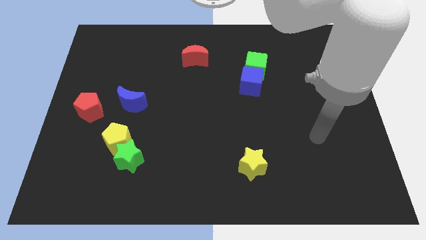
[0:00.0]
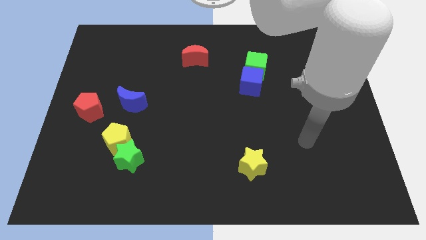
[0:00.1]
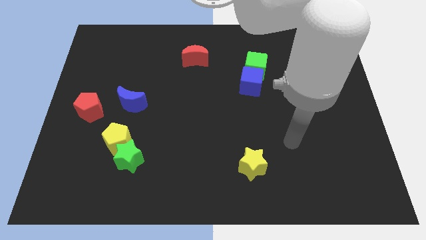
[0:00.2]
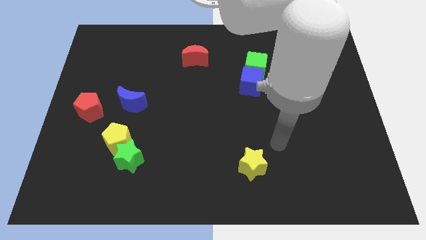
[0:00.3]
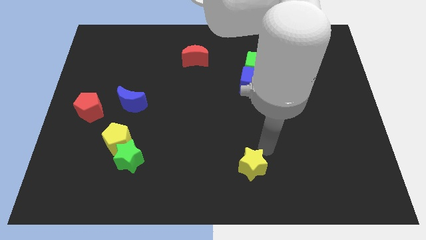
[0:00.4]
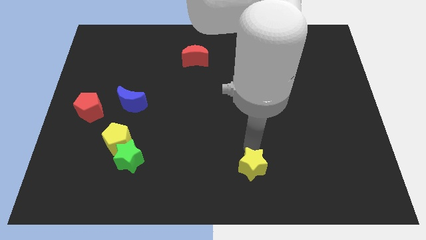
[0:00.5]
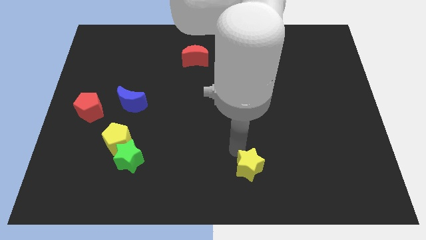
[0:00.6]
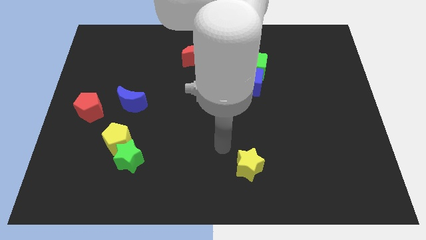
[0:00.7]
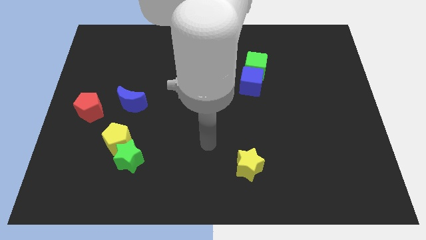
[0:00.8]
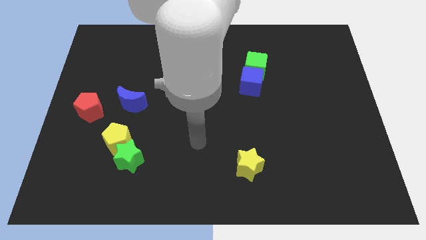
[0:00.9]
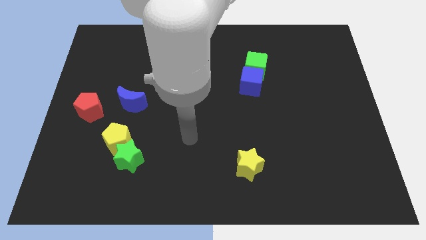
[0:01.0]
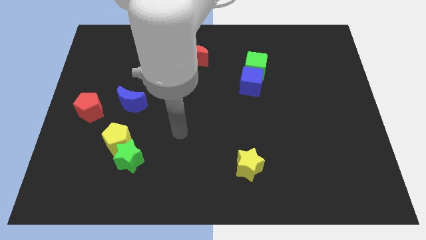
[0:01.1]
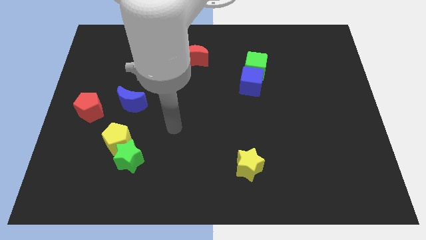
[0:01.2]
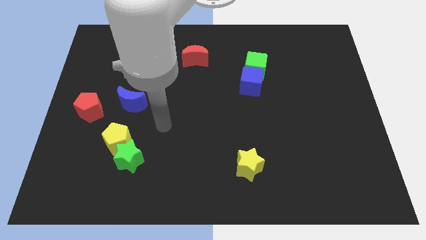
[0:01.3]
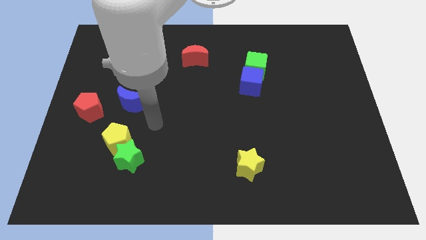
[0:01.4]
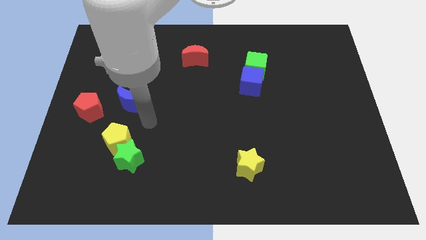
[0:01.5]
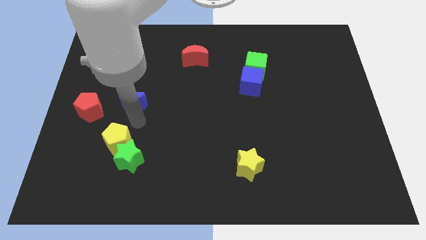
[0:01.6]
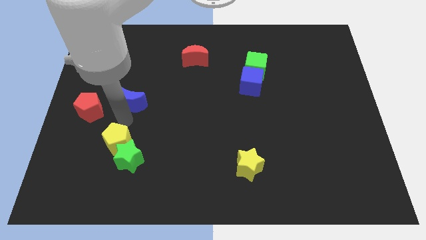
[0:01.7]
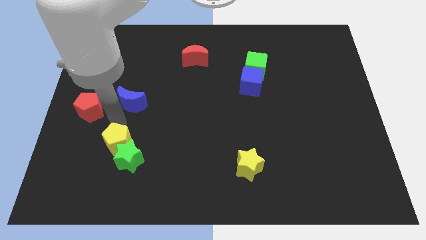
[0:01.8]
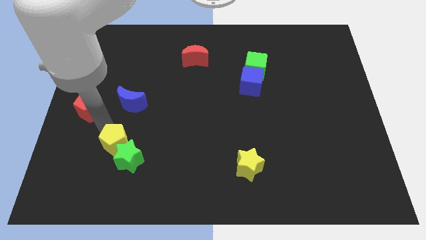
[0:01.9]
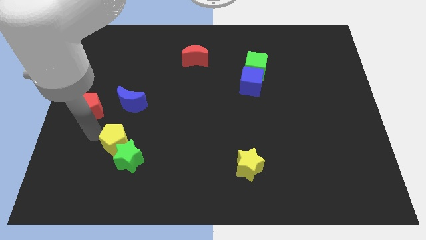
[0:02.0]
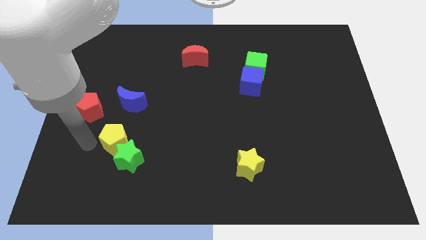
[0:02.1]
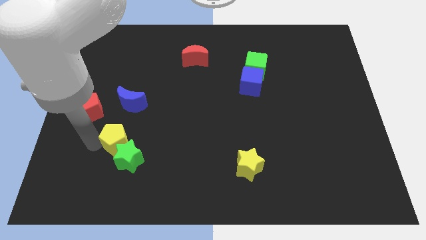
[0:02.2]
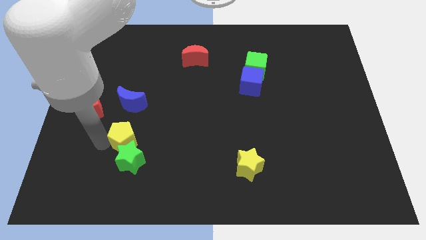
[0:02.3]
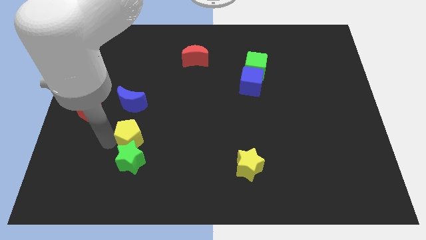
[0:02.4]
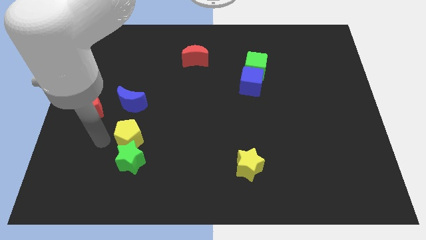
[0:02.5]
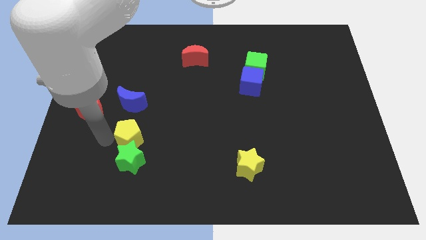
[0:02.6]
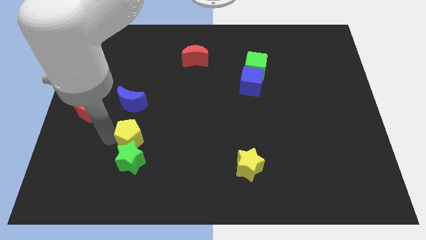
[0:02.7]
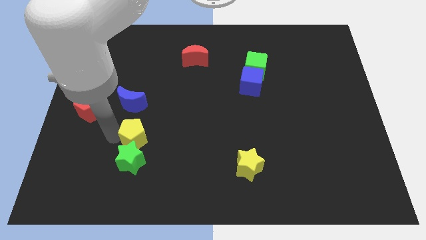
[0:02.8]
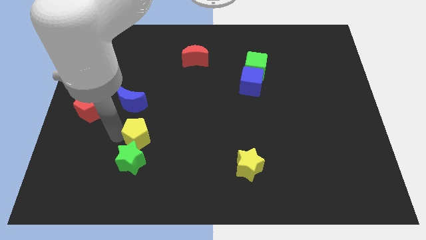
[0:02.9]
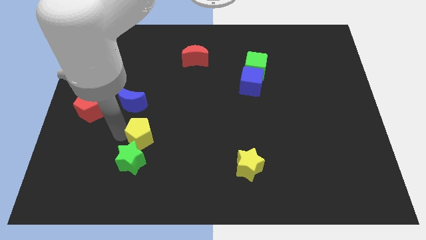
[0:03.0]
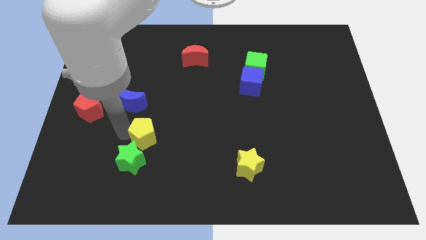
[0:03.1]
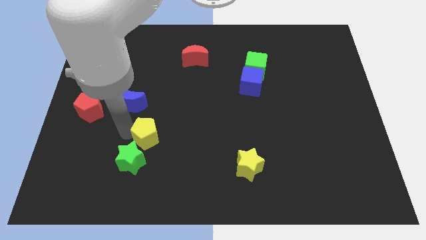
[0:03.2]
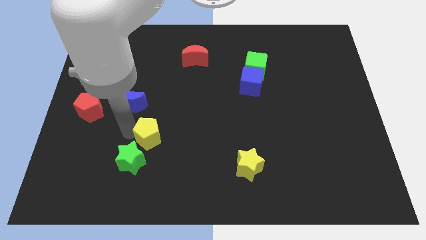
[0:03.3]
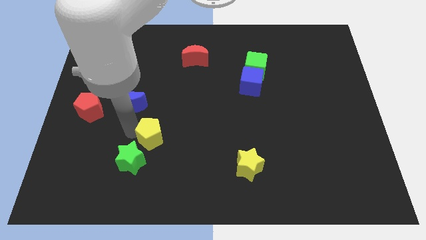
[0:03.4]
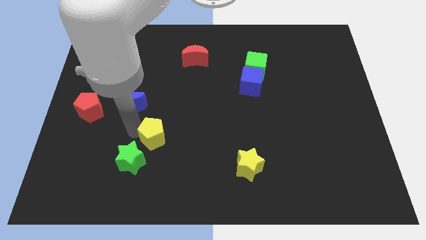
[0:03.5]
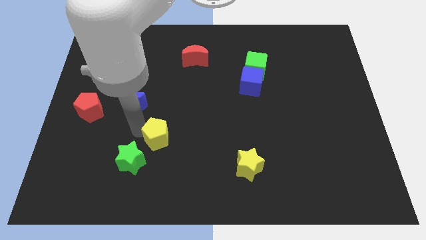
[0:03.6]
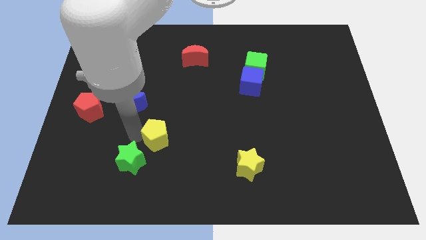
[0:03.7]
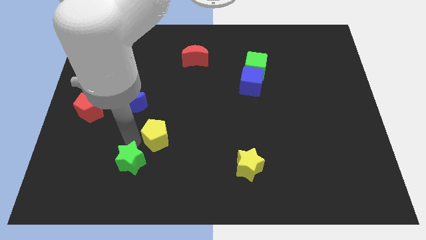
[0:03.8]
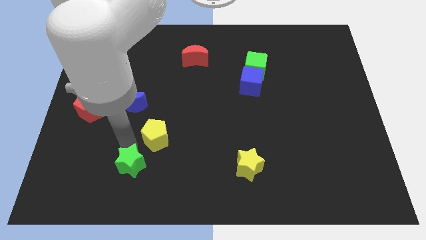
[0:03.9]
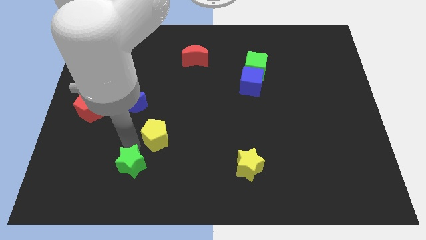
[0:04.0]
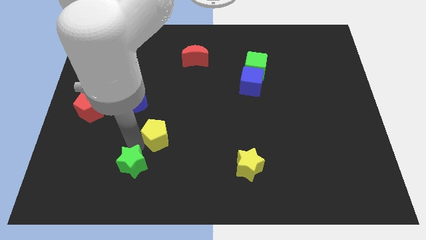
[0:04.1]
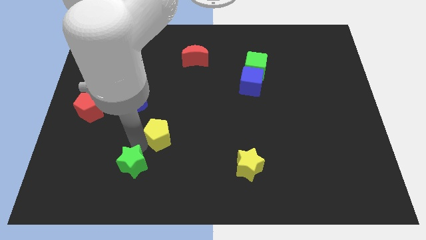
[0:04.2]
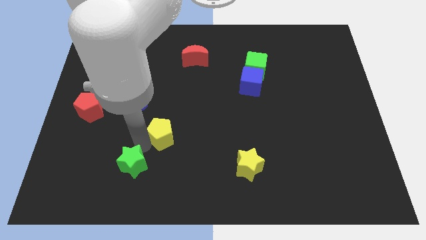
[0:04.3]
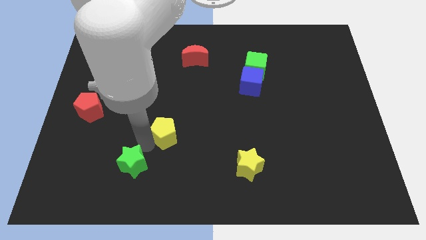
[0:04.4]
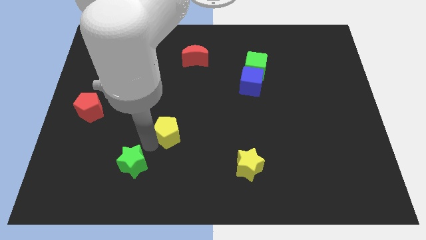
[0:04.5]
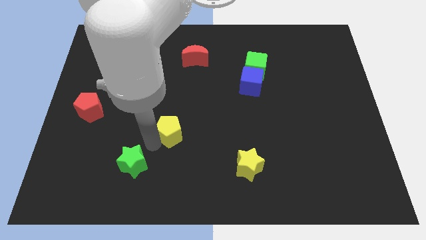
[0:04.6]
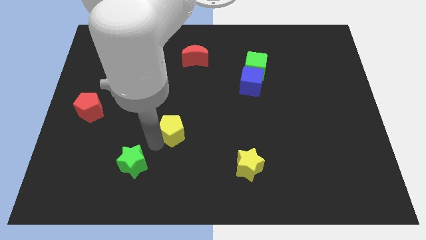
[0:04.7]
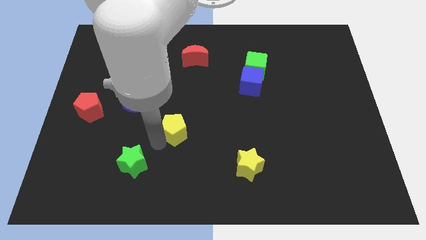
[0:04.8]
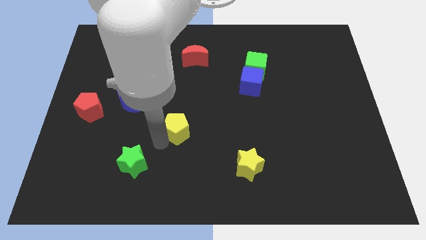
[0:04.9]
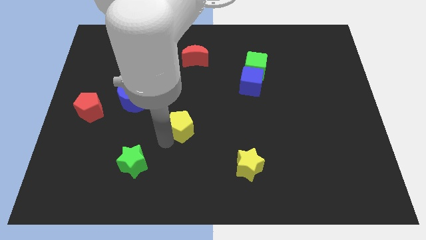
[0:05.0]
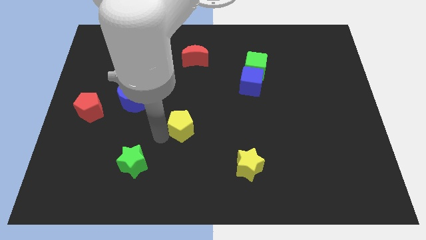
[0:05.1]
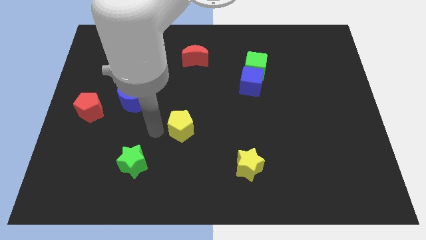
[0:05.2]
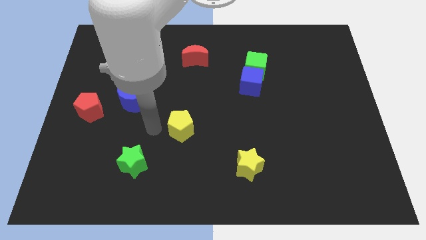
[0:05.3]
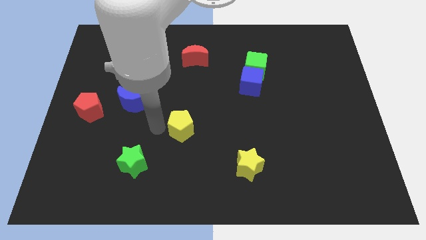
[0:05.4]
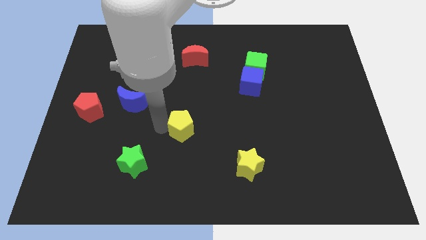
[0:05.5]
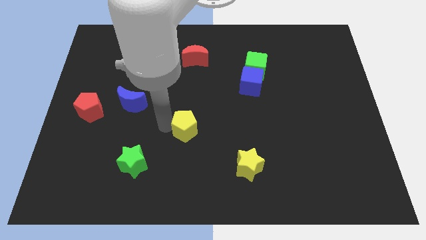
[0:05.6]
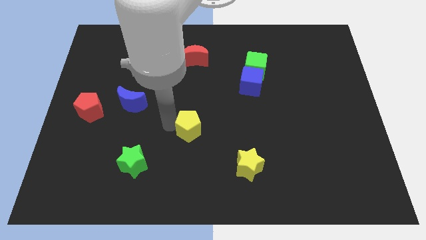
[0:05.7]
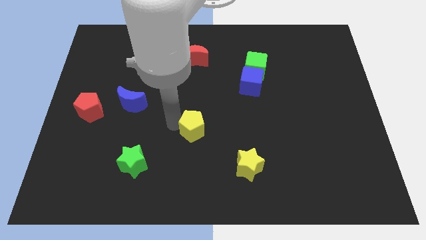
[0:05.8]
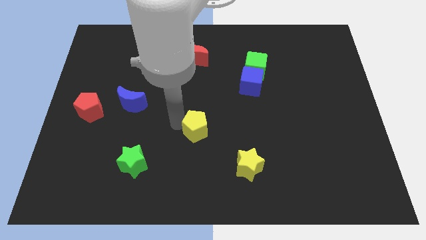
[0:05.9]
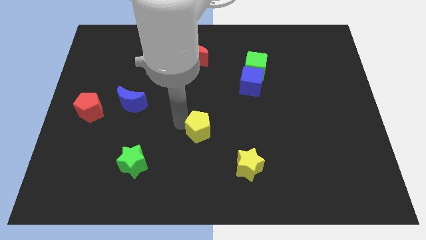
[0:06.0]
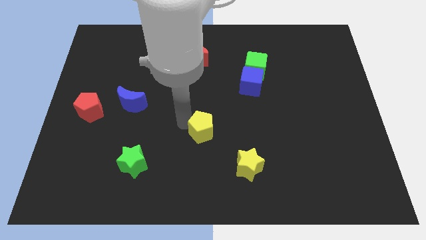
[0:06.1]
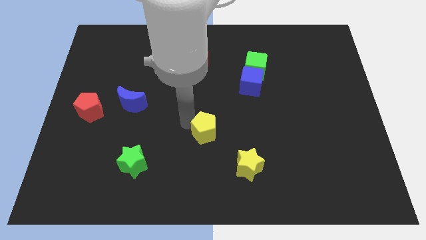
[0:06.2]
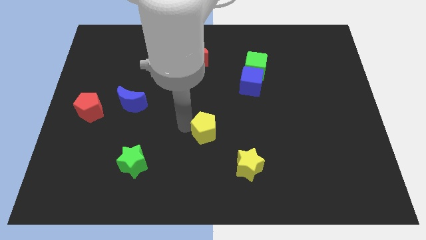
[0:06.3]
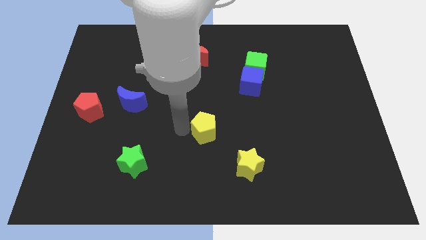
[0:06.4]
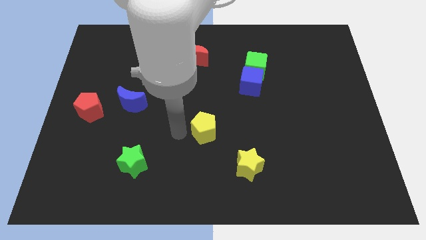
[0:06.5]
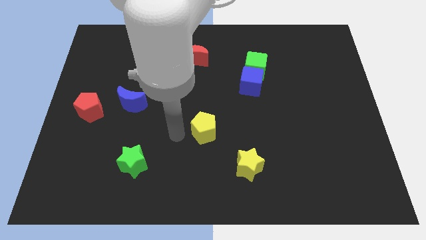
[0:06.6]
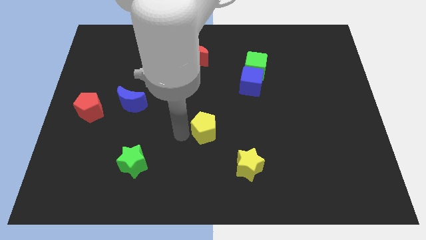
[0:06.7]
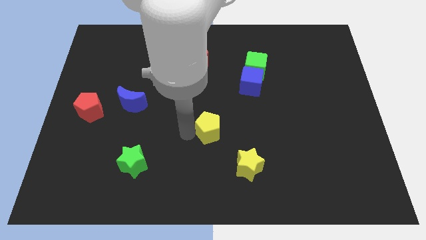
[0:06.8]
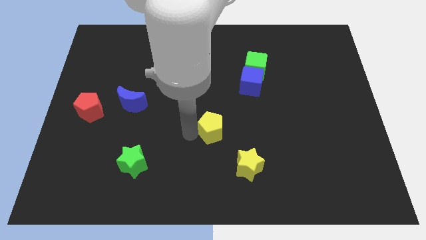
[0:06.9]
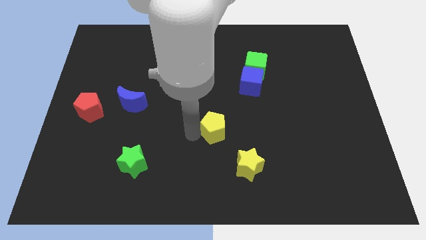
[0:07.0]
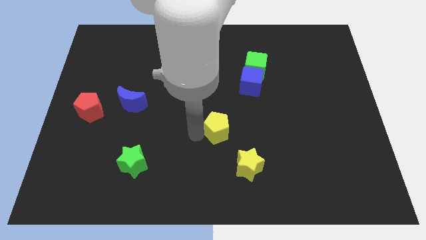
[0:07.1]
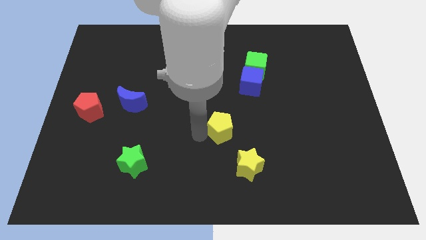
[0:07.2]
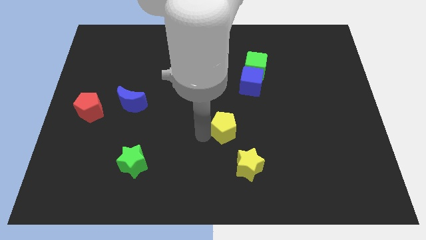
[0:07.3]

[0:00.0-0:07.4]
put the yellow pentagon to the top of the yellow star

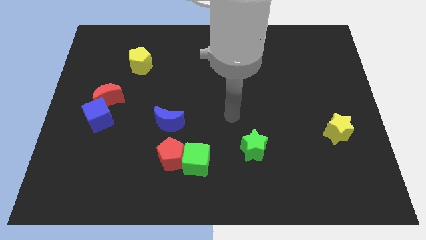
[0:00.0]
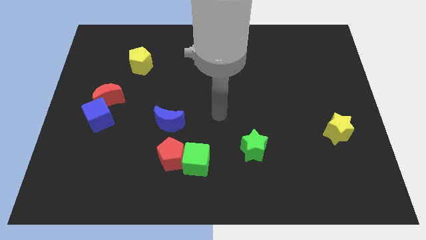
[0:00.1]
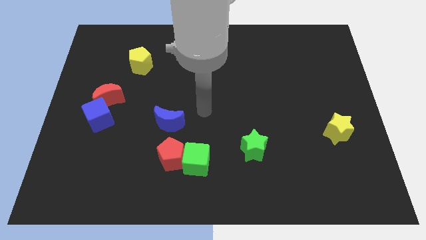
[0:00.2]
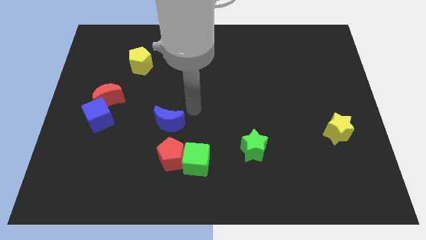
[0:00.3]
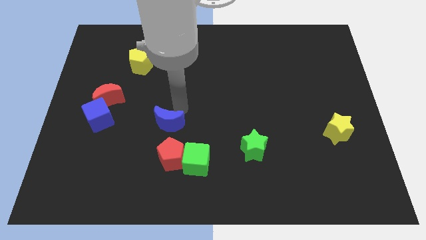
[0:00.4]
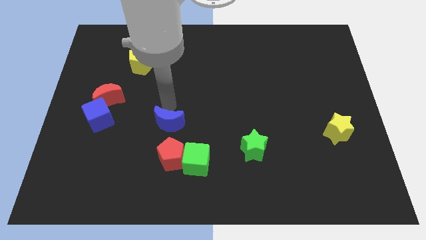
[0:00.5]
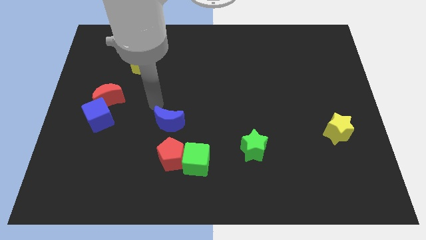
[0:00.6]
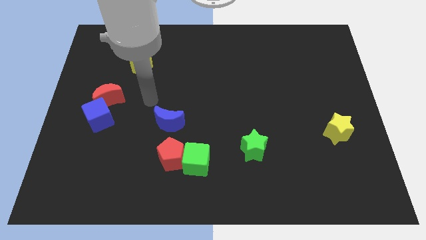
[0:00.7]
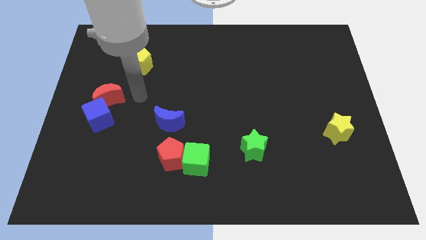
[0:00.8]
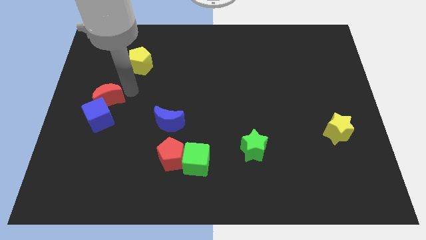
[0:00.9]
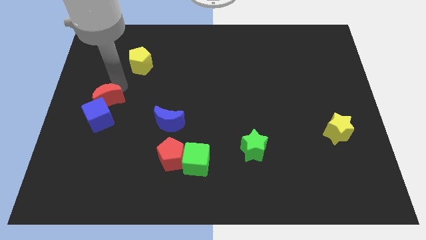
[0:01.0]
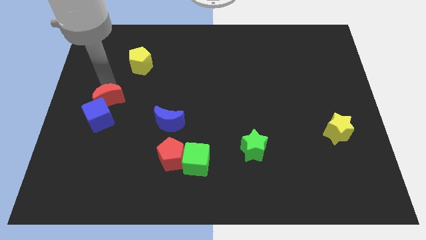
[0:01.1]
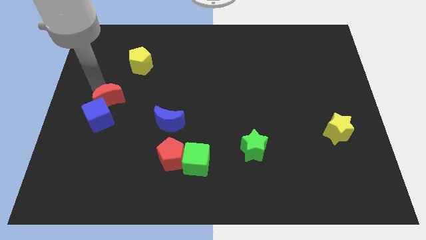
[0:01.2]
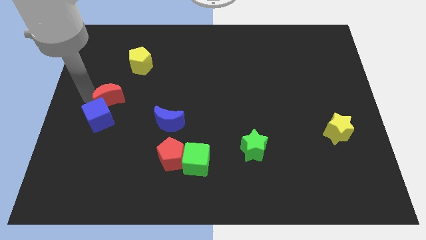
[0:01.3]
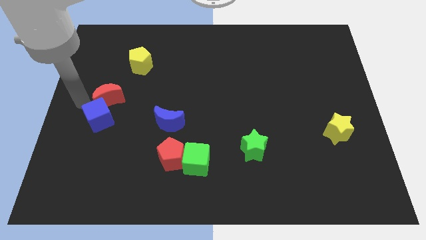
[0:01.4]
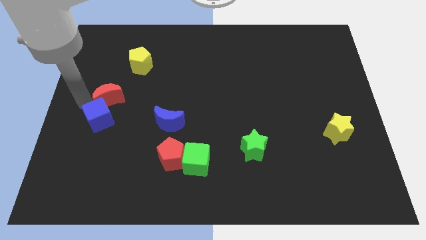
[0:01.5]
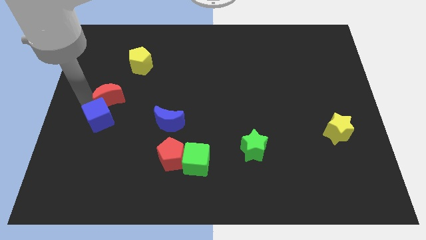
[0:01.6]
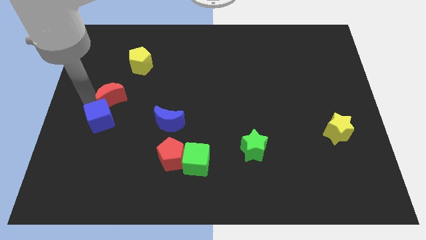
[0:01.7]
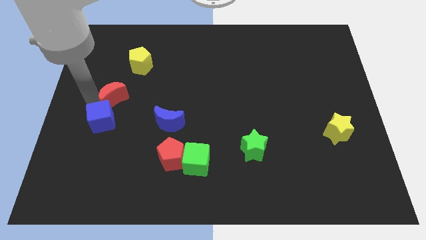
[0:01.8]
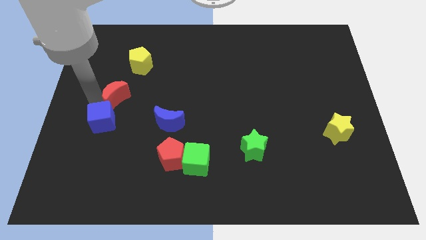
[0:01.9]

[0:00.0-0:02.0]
push the red moon to the bottom side of the yellow pentagon
